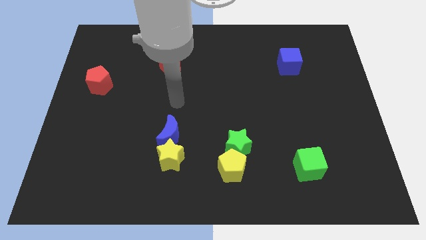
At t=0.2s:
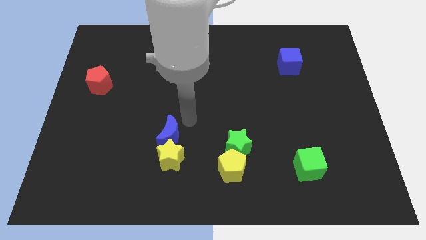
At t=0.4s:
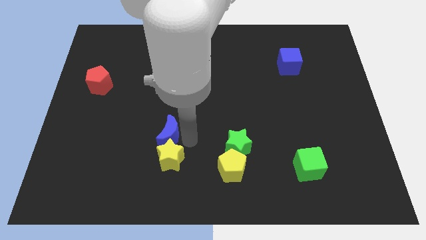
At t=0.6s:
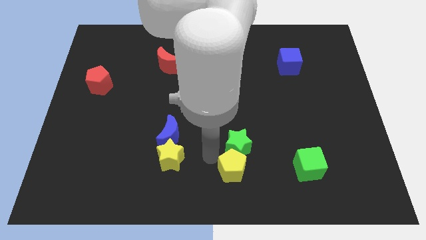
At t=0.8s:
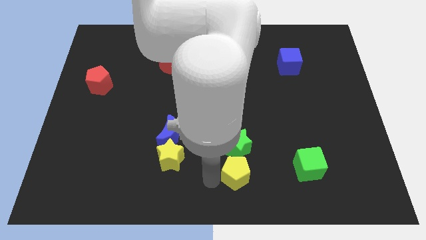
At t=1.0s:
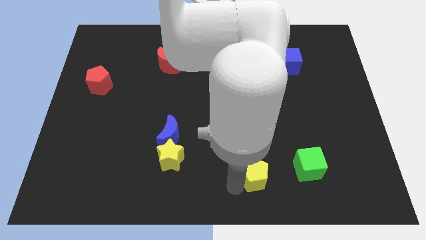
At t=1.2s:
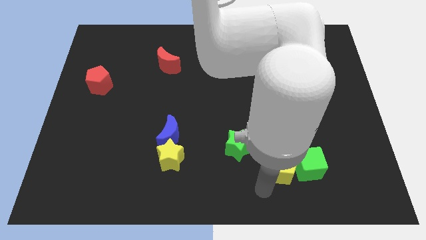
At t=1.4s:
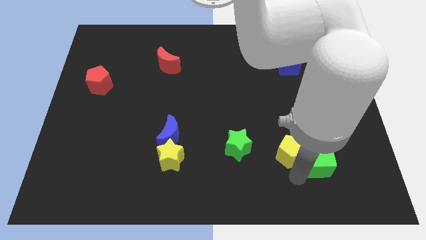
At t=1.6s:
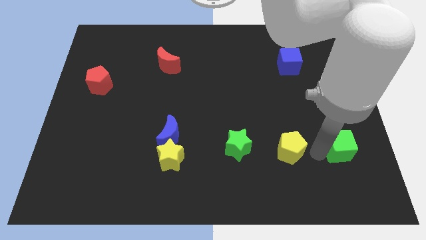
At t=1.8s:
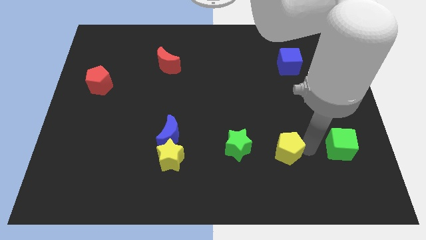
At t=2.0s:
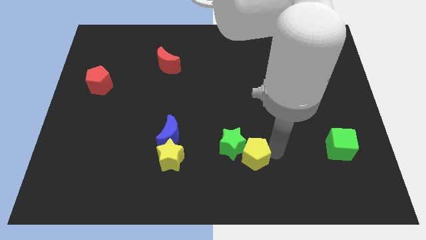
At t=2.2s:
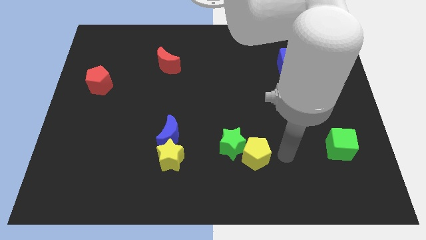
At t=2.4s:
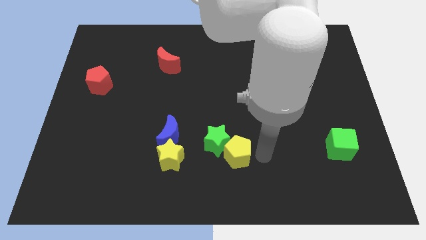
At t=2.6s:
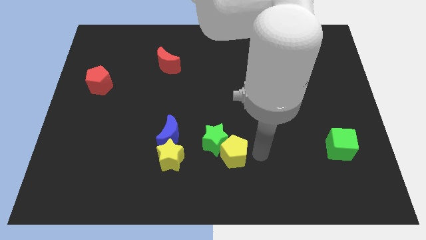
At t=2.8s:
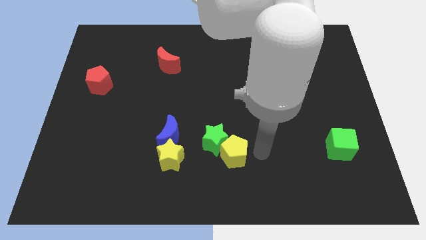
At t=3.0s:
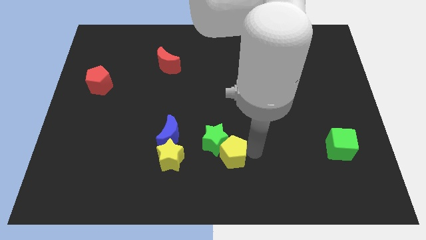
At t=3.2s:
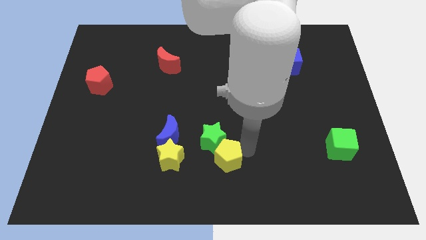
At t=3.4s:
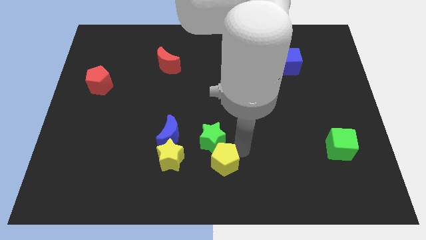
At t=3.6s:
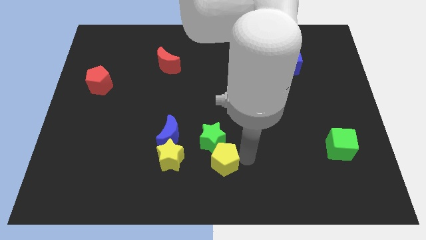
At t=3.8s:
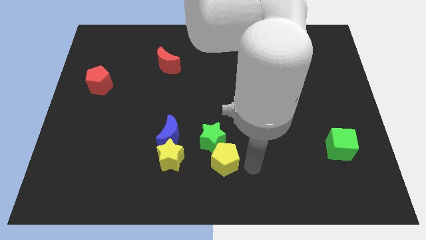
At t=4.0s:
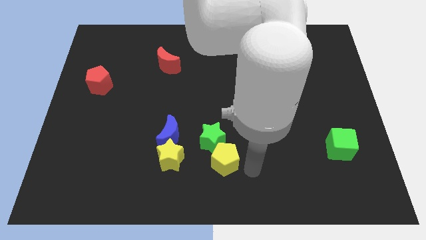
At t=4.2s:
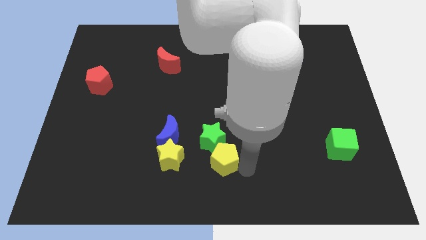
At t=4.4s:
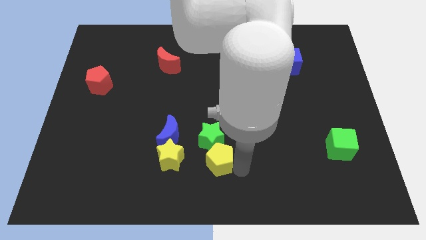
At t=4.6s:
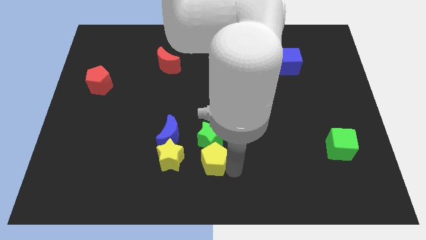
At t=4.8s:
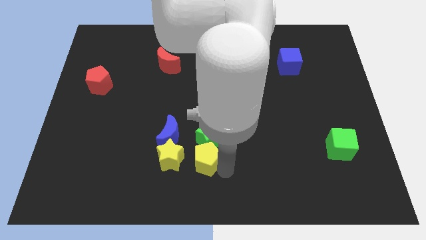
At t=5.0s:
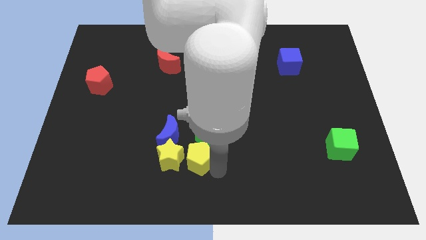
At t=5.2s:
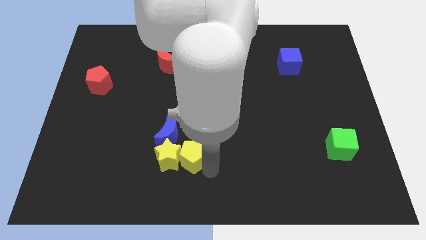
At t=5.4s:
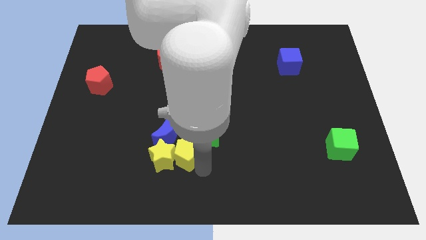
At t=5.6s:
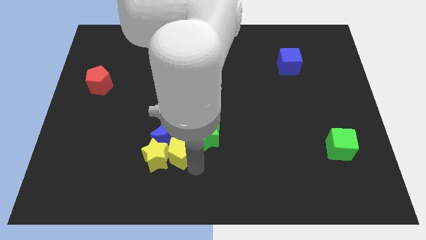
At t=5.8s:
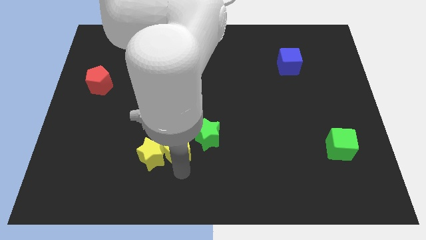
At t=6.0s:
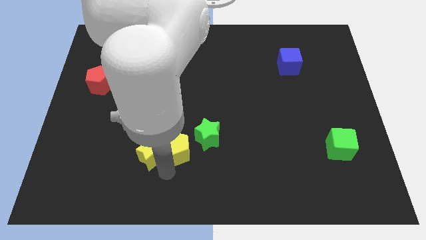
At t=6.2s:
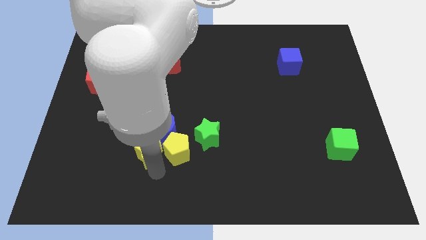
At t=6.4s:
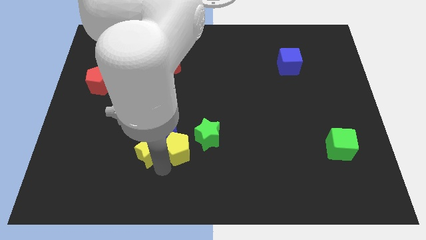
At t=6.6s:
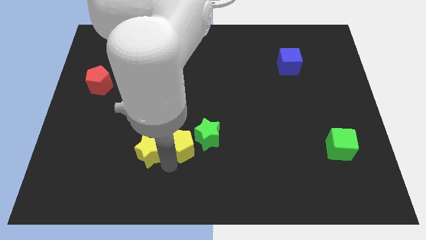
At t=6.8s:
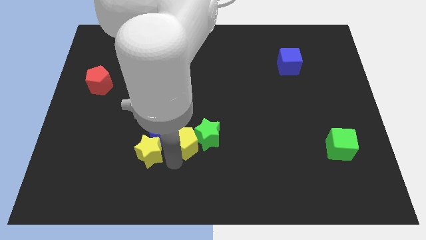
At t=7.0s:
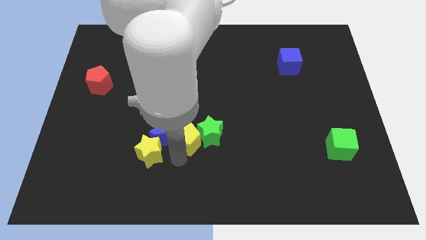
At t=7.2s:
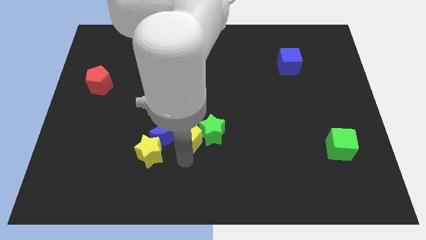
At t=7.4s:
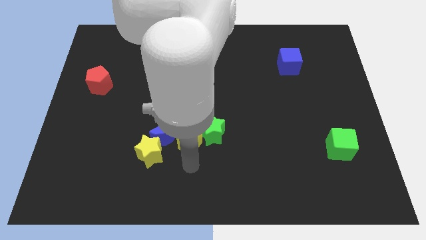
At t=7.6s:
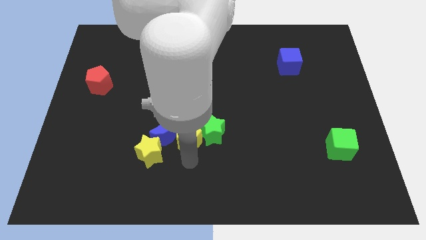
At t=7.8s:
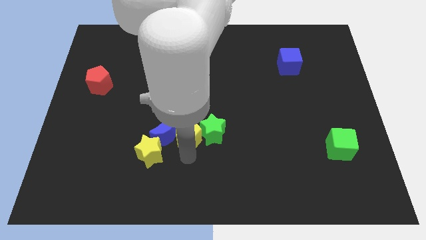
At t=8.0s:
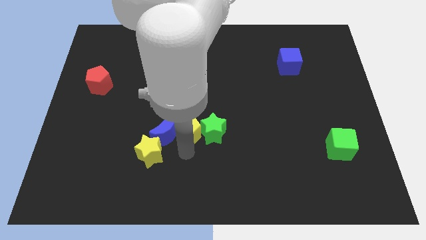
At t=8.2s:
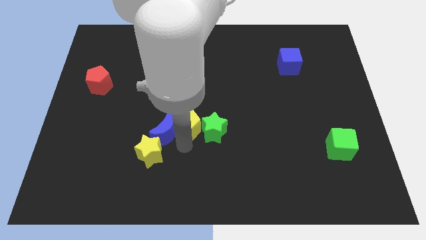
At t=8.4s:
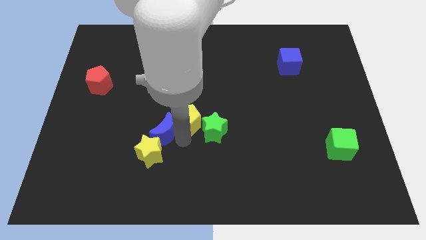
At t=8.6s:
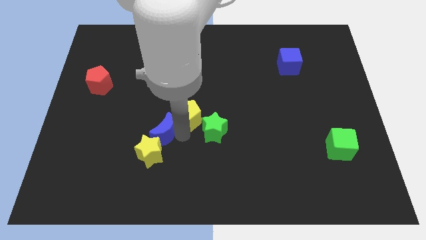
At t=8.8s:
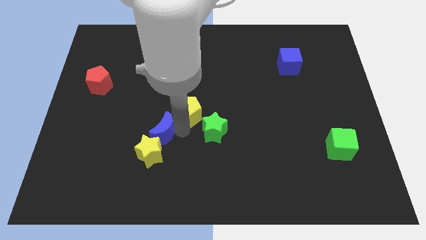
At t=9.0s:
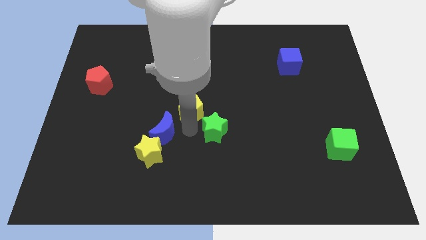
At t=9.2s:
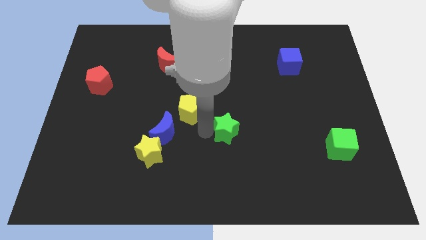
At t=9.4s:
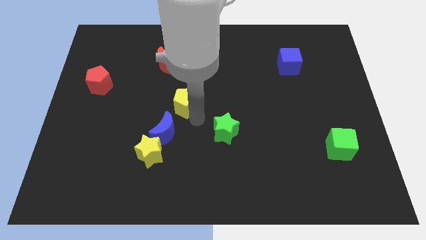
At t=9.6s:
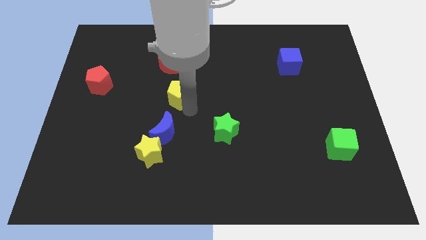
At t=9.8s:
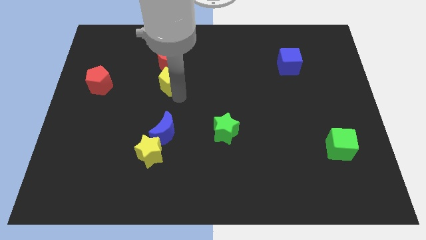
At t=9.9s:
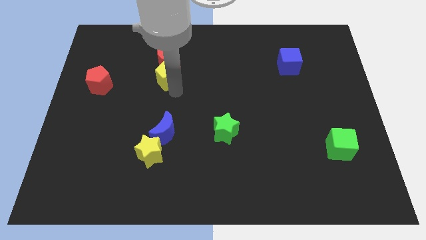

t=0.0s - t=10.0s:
put the yellow pentagon close to the red moon

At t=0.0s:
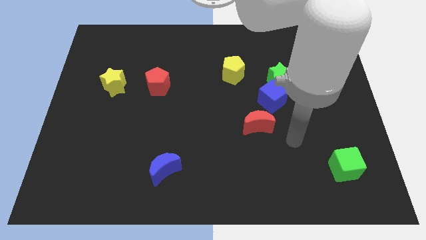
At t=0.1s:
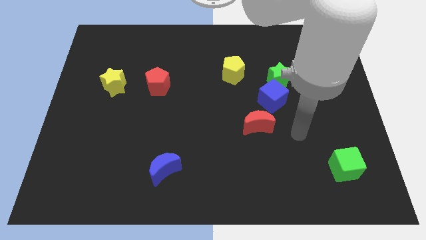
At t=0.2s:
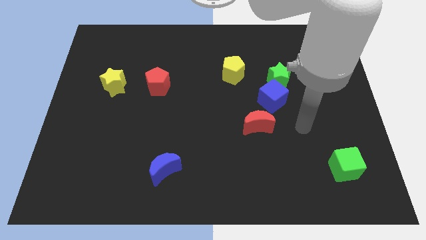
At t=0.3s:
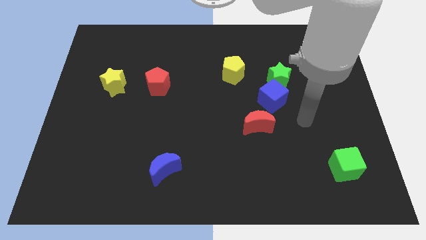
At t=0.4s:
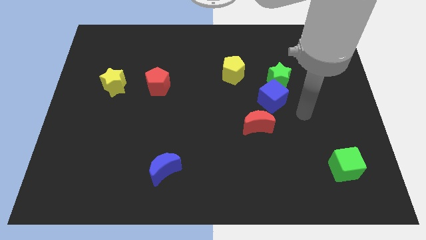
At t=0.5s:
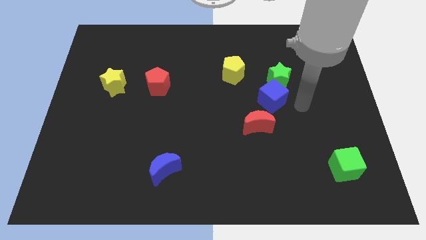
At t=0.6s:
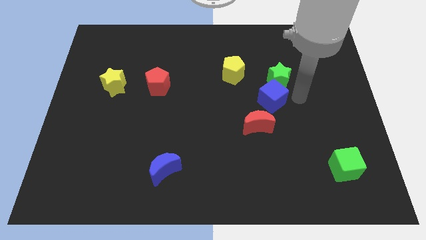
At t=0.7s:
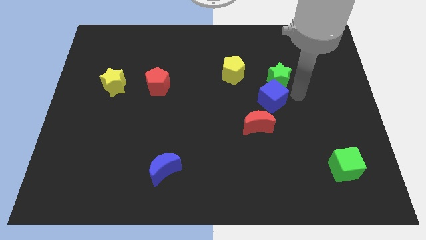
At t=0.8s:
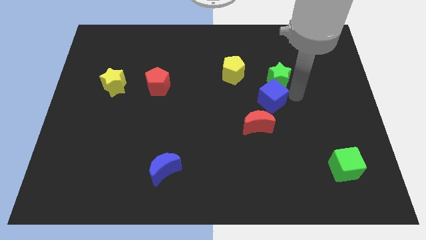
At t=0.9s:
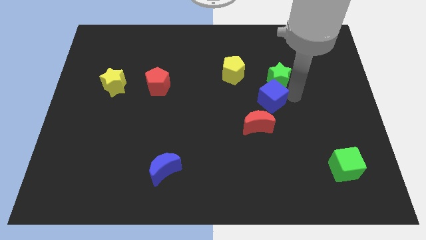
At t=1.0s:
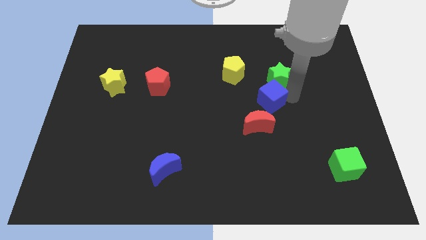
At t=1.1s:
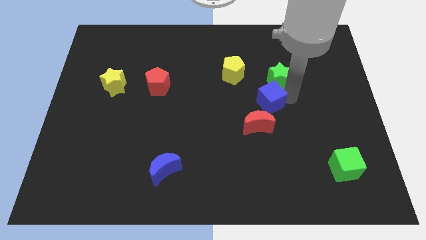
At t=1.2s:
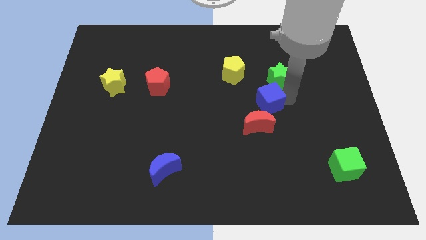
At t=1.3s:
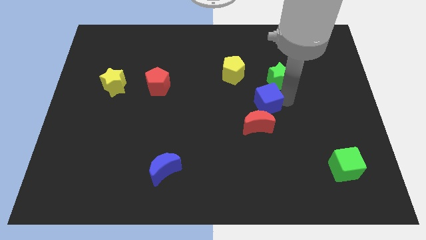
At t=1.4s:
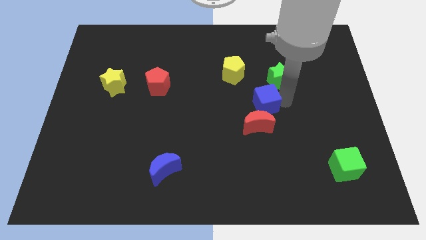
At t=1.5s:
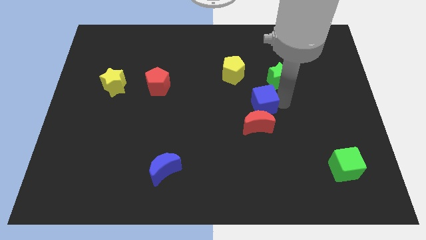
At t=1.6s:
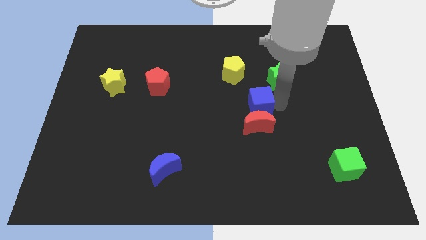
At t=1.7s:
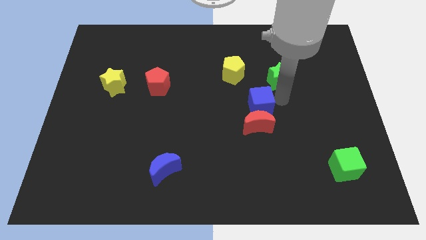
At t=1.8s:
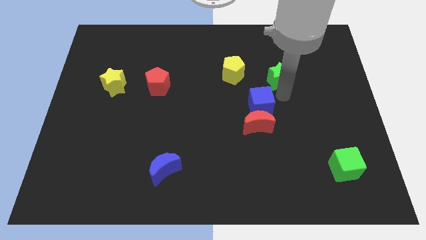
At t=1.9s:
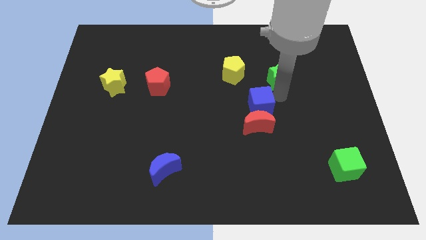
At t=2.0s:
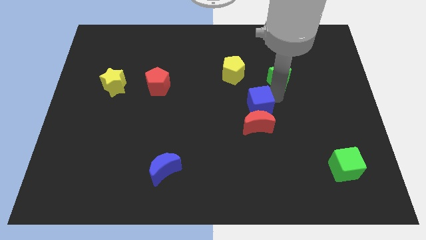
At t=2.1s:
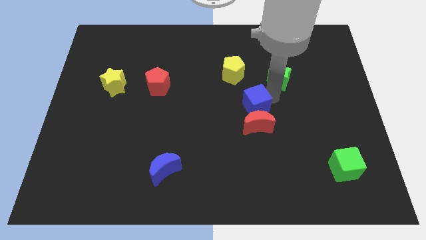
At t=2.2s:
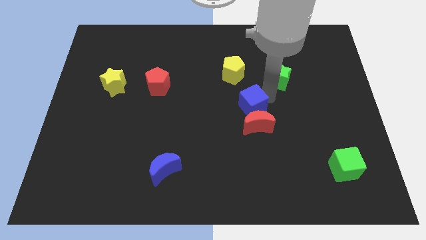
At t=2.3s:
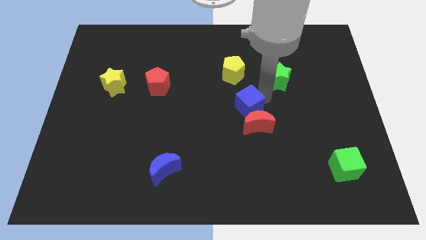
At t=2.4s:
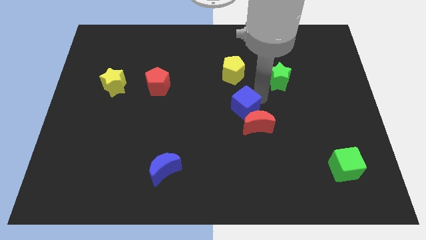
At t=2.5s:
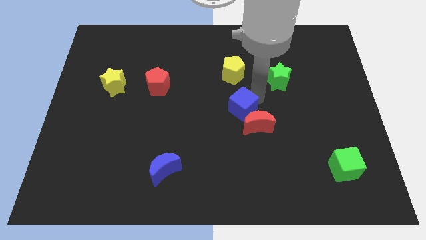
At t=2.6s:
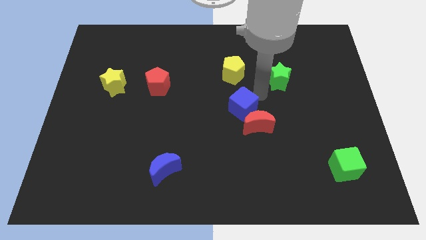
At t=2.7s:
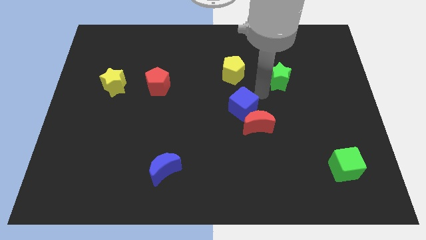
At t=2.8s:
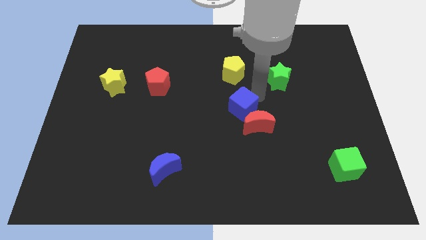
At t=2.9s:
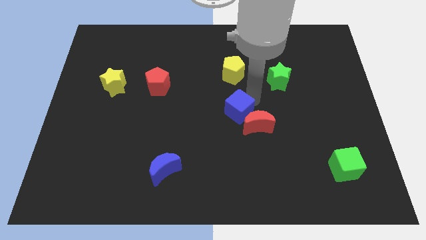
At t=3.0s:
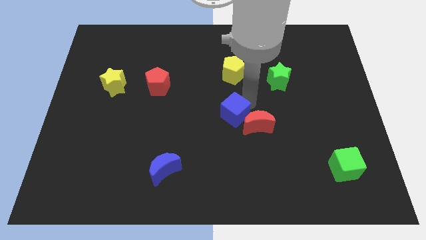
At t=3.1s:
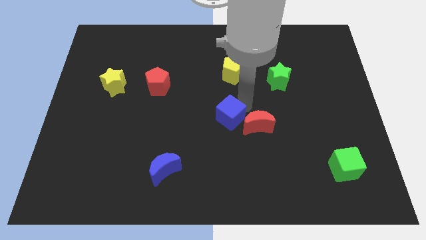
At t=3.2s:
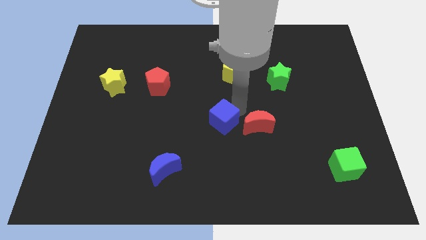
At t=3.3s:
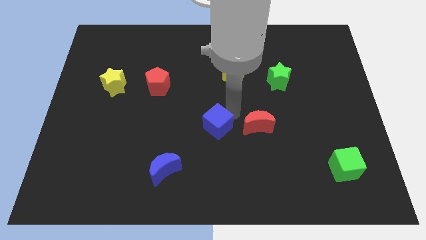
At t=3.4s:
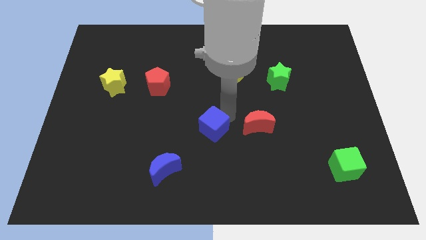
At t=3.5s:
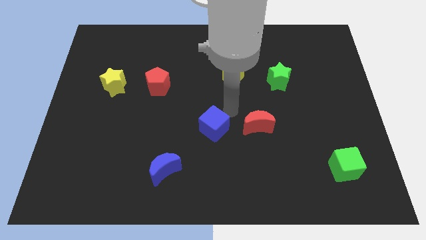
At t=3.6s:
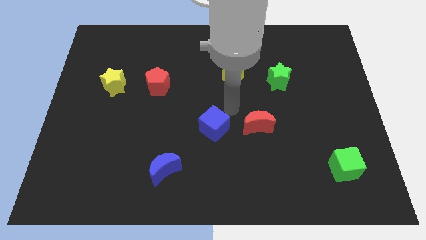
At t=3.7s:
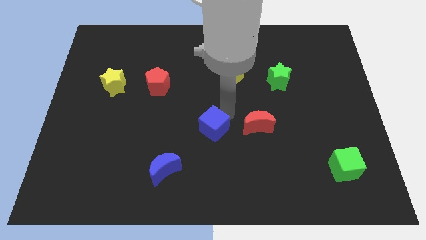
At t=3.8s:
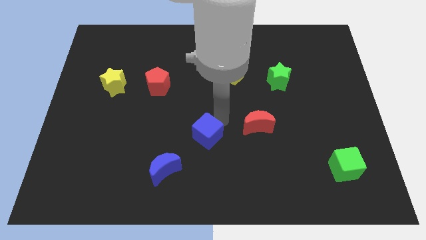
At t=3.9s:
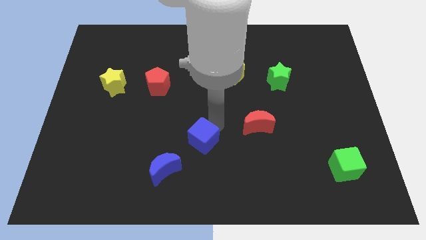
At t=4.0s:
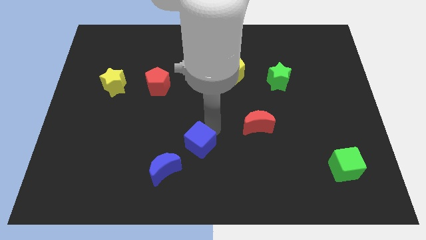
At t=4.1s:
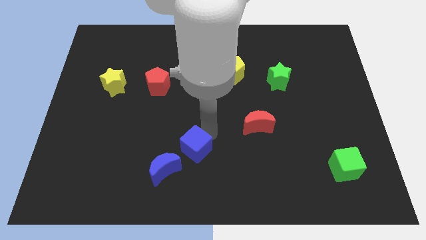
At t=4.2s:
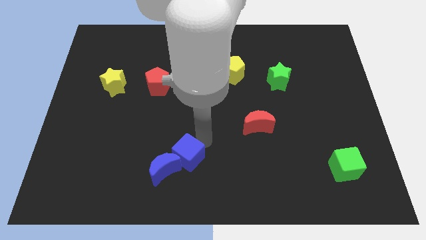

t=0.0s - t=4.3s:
slide the blue cube next to the blue moon
